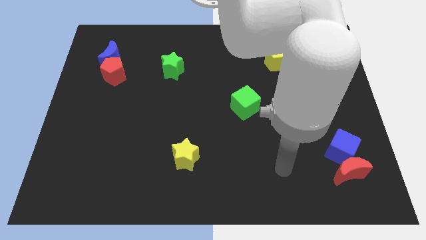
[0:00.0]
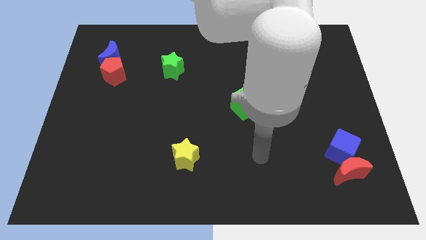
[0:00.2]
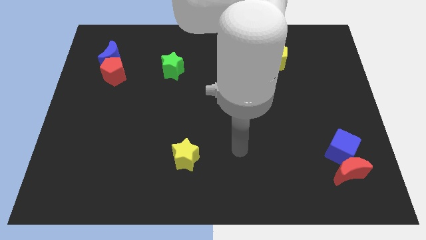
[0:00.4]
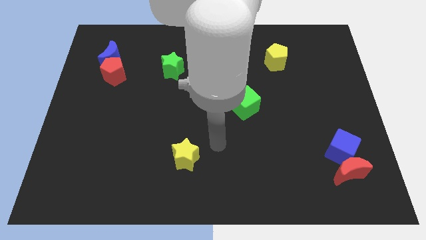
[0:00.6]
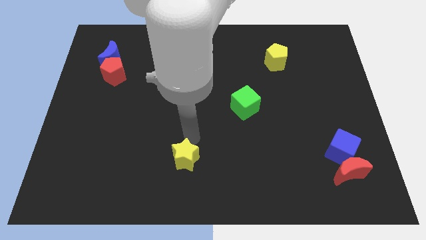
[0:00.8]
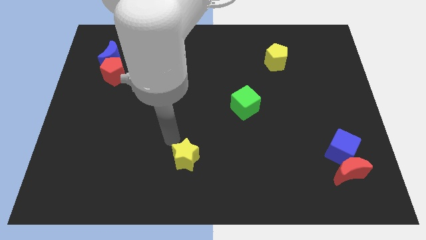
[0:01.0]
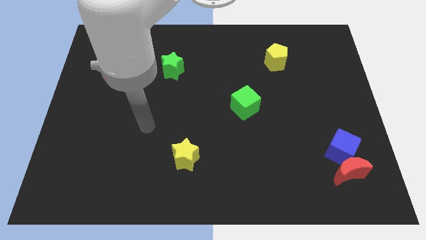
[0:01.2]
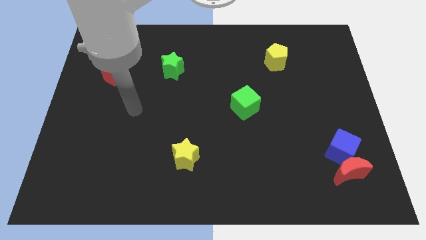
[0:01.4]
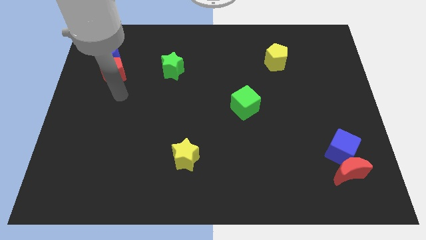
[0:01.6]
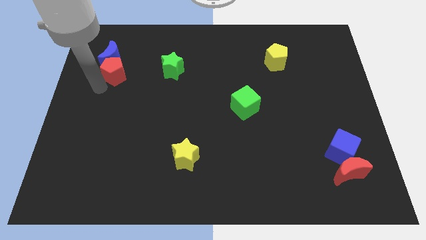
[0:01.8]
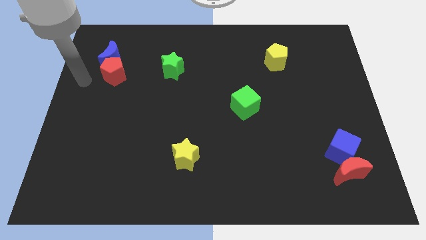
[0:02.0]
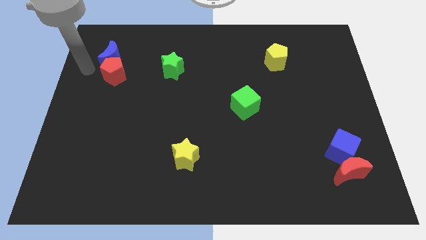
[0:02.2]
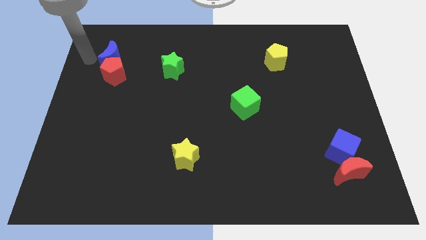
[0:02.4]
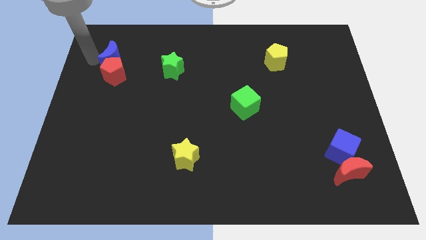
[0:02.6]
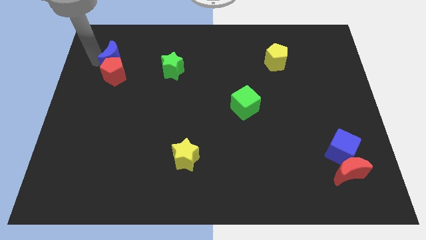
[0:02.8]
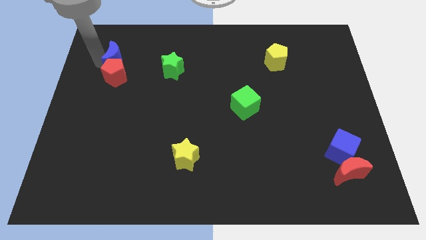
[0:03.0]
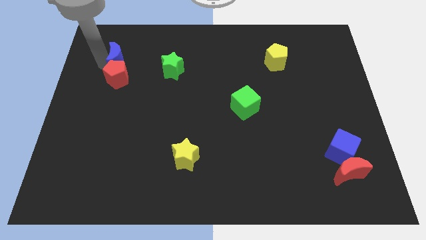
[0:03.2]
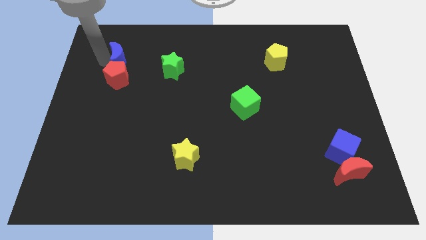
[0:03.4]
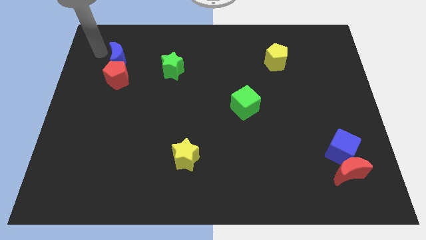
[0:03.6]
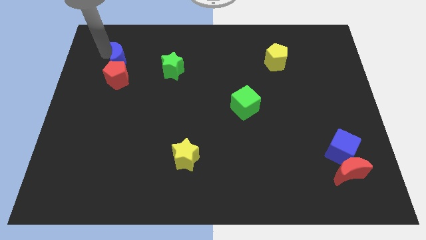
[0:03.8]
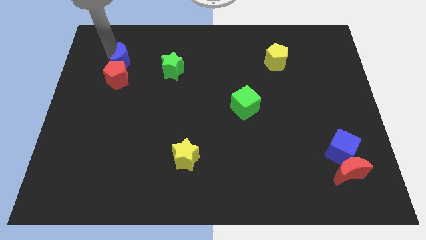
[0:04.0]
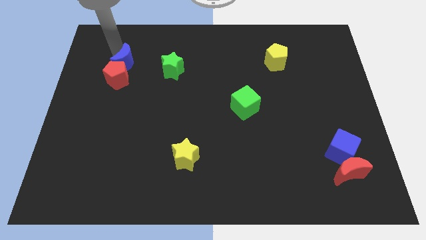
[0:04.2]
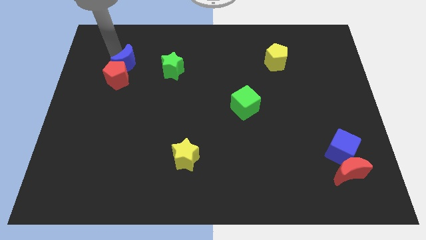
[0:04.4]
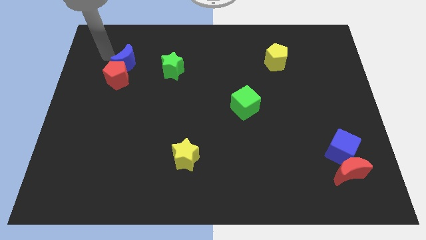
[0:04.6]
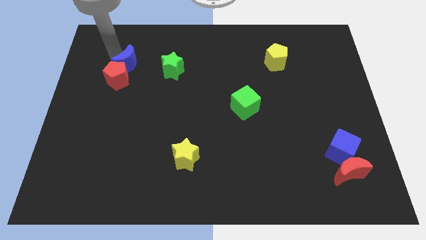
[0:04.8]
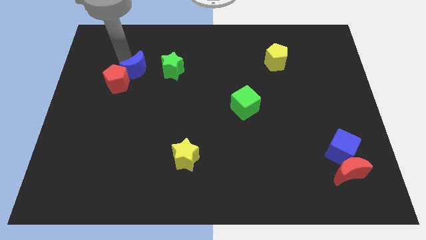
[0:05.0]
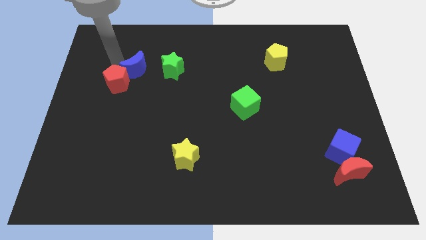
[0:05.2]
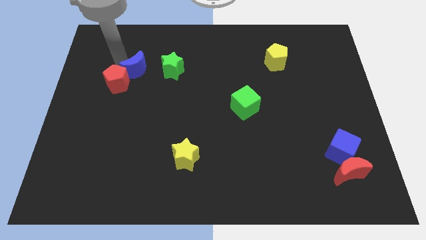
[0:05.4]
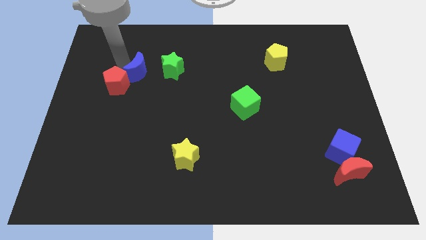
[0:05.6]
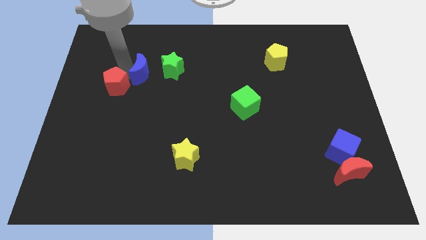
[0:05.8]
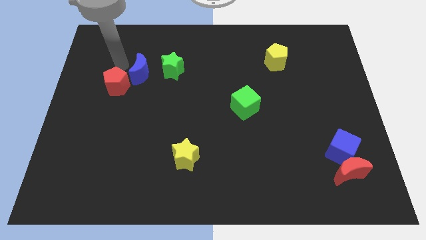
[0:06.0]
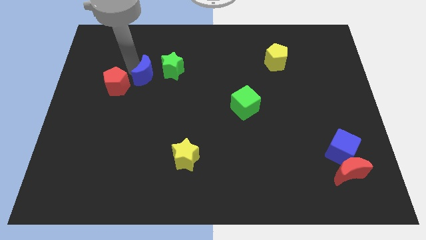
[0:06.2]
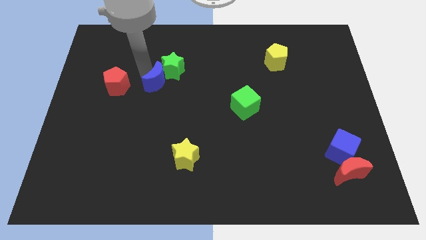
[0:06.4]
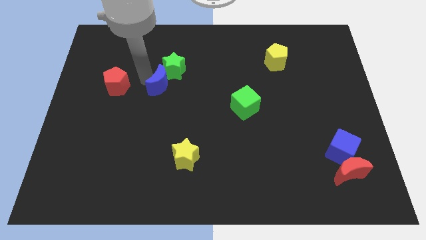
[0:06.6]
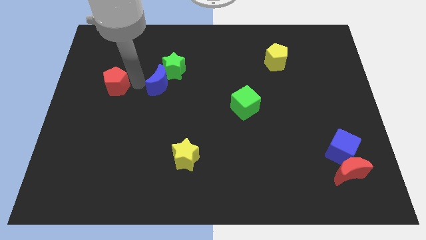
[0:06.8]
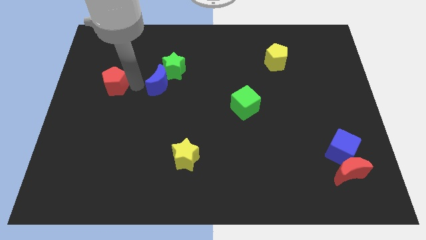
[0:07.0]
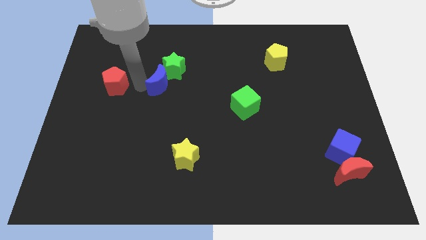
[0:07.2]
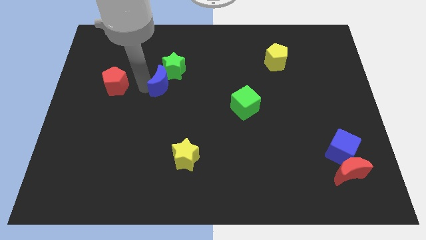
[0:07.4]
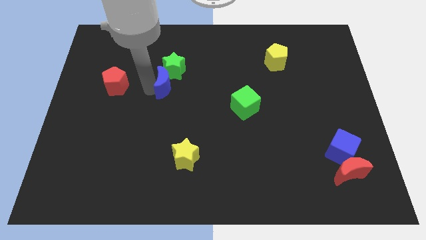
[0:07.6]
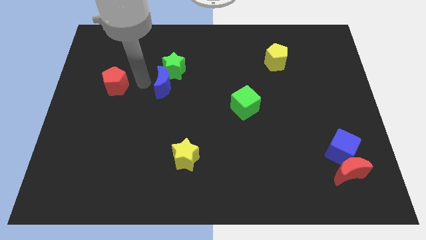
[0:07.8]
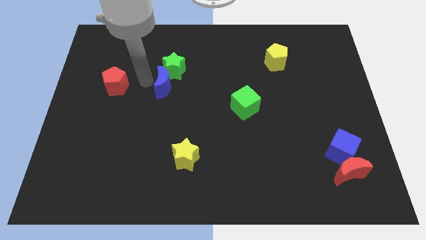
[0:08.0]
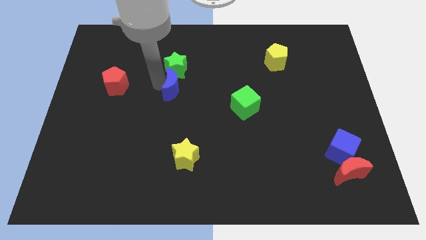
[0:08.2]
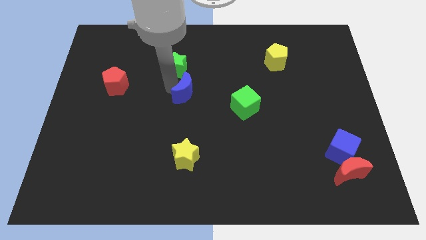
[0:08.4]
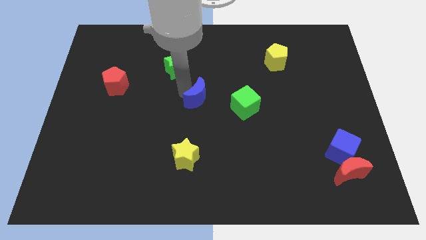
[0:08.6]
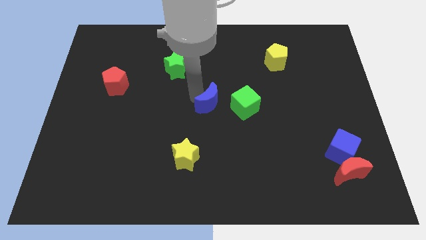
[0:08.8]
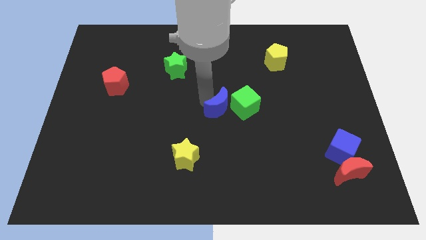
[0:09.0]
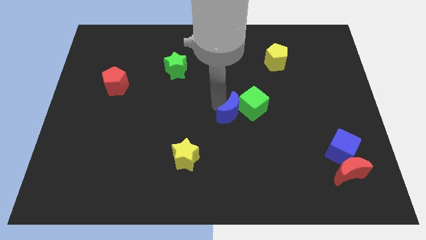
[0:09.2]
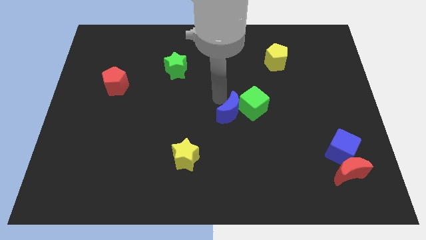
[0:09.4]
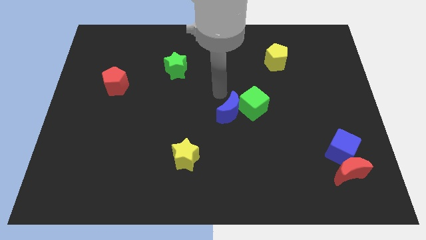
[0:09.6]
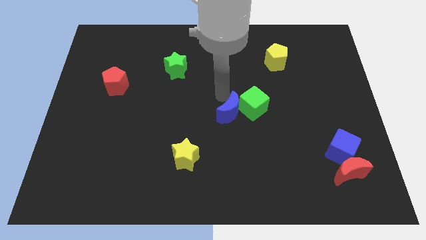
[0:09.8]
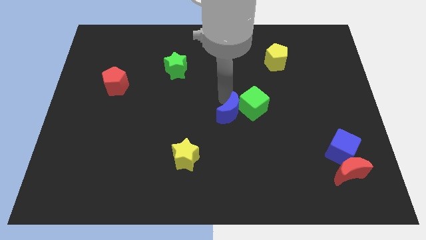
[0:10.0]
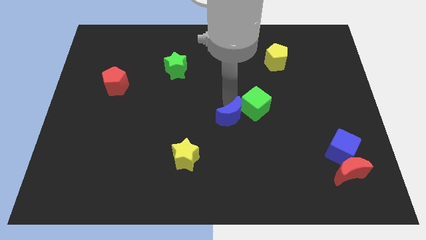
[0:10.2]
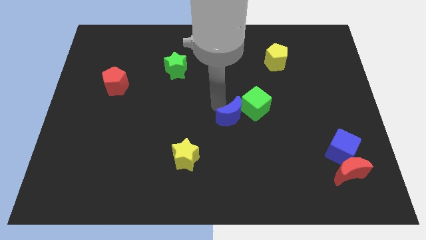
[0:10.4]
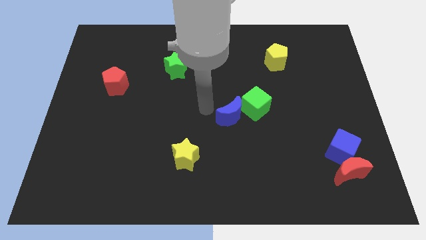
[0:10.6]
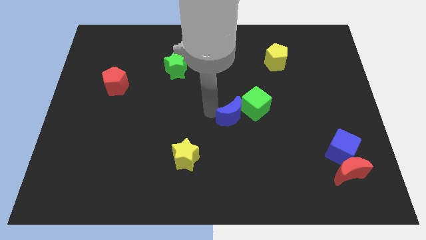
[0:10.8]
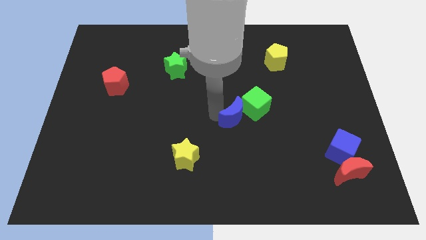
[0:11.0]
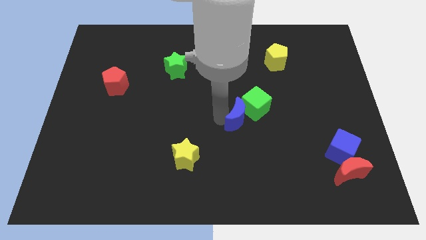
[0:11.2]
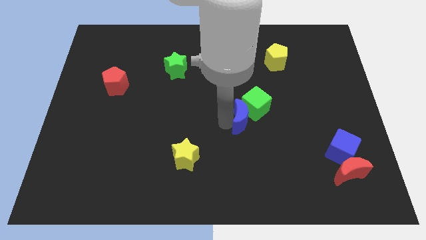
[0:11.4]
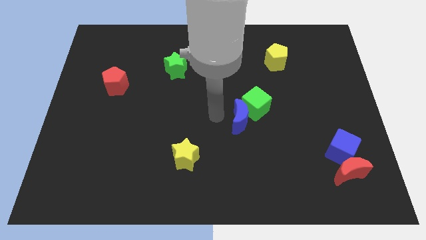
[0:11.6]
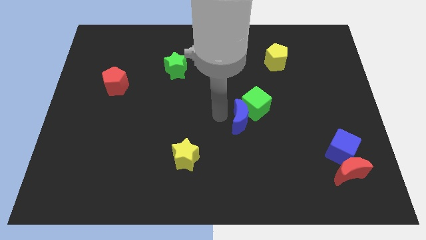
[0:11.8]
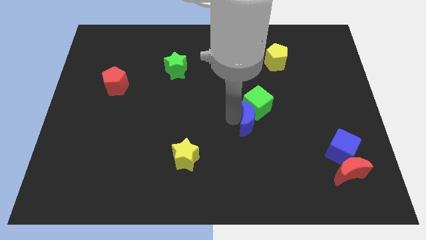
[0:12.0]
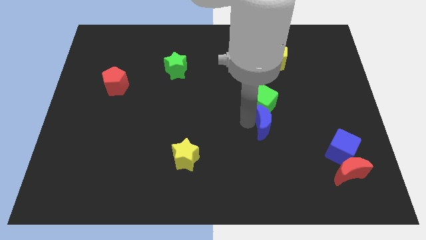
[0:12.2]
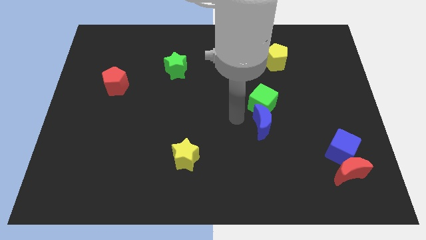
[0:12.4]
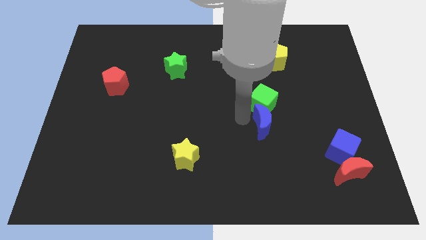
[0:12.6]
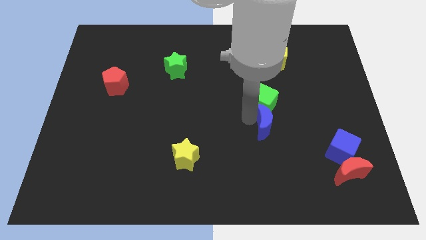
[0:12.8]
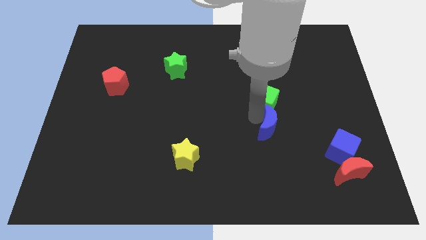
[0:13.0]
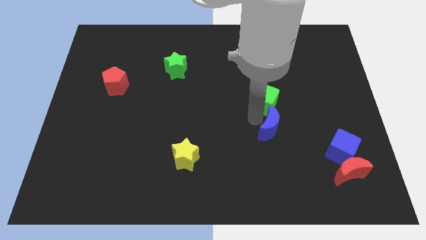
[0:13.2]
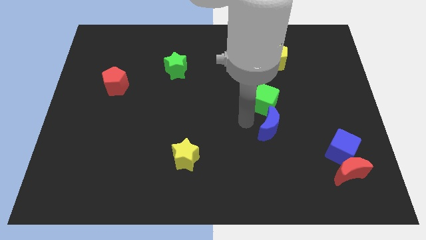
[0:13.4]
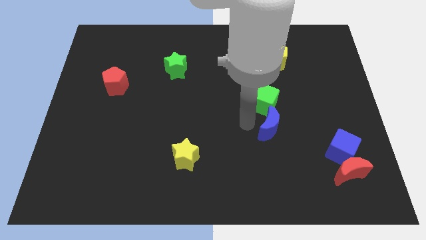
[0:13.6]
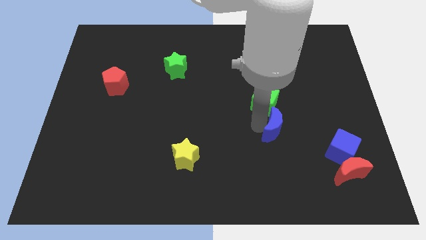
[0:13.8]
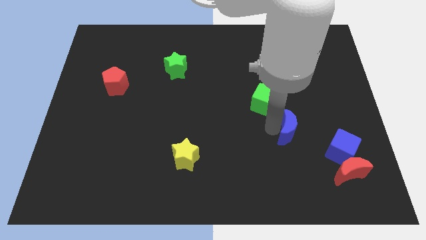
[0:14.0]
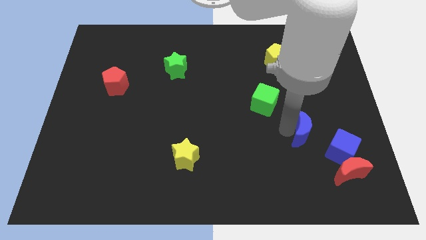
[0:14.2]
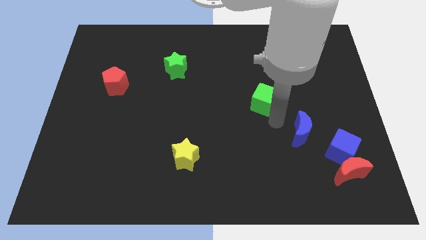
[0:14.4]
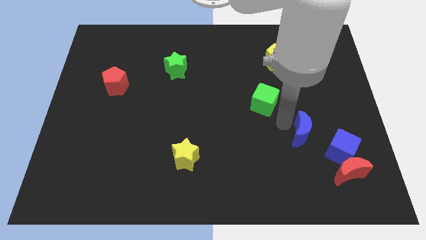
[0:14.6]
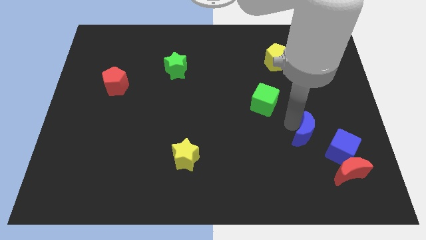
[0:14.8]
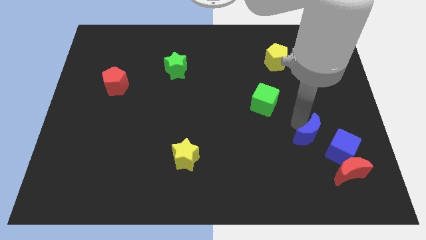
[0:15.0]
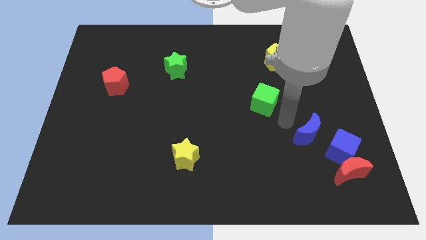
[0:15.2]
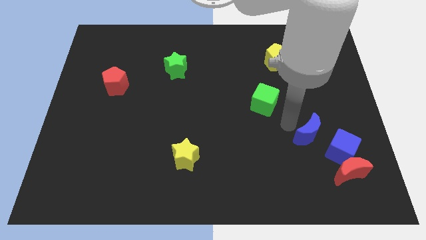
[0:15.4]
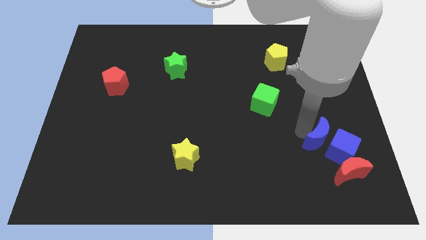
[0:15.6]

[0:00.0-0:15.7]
push the blue moon next to the blue cube

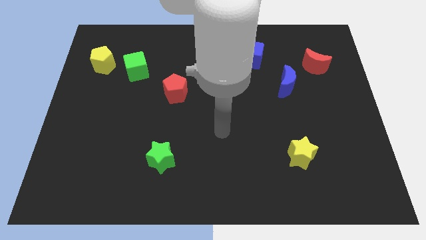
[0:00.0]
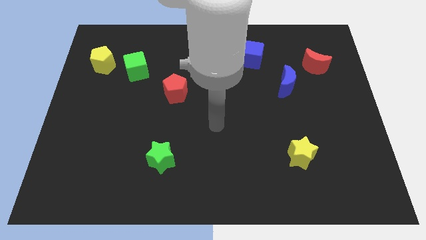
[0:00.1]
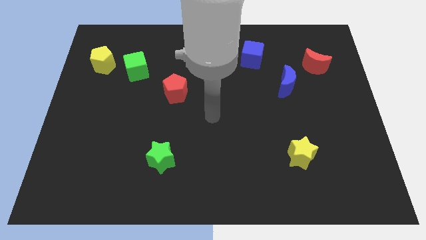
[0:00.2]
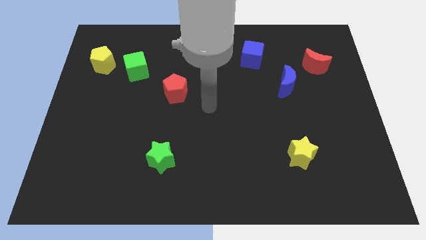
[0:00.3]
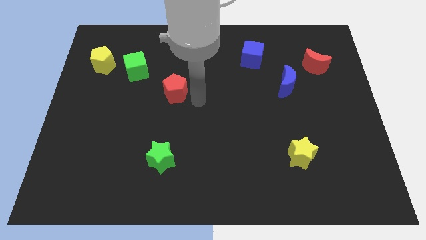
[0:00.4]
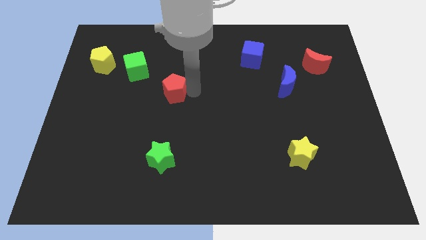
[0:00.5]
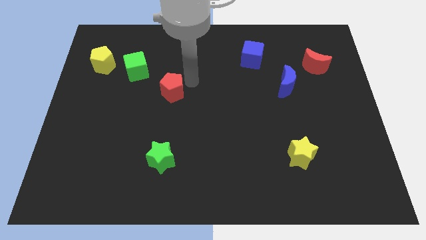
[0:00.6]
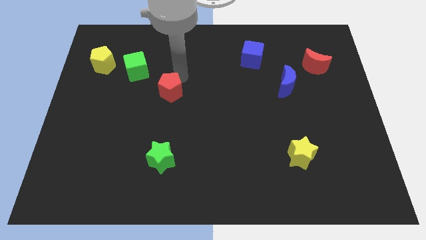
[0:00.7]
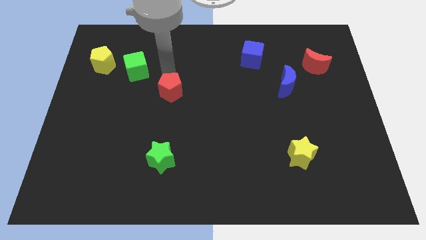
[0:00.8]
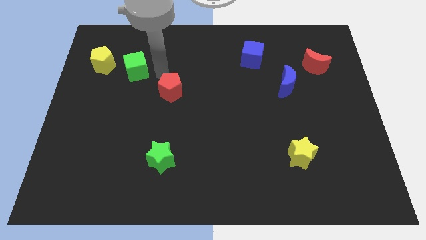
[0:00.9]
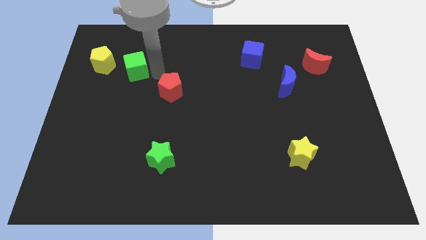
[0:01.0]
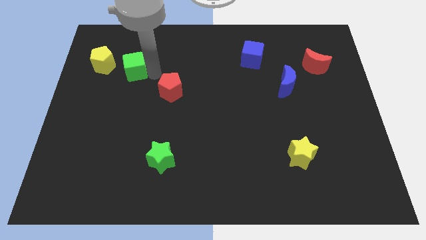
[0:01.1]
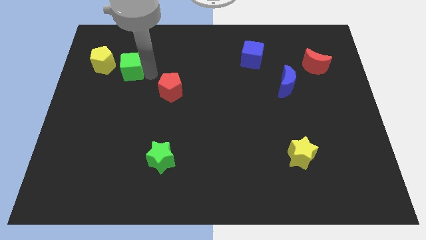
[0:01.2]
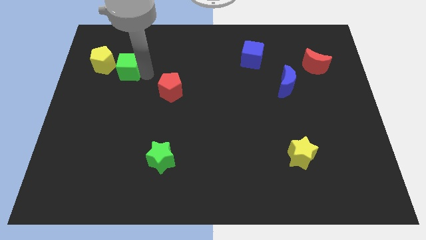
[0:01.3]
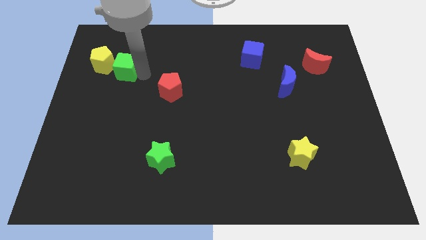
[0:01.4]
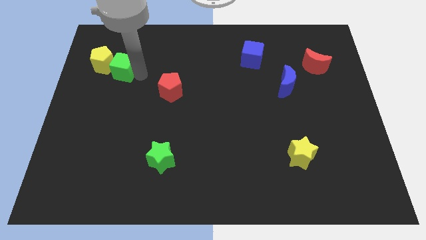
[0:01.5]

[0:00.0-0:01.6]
move the green cube towards the yellow pentagon
